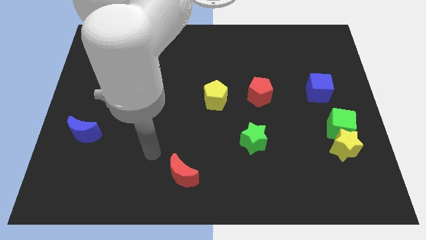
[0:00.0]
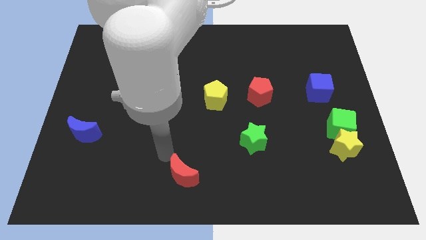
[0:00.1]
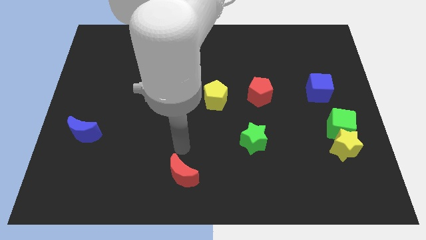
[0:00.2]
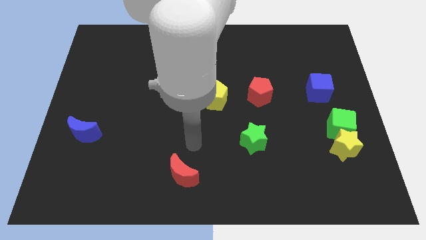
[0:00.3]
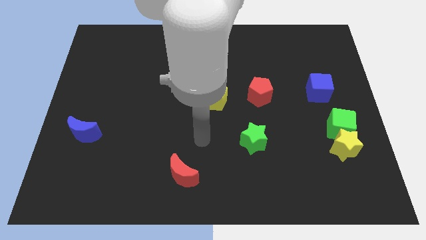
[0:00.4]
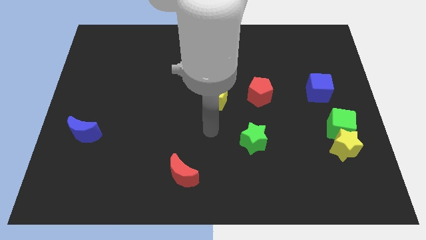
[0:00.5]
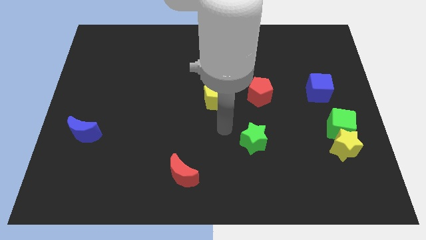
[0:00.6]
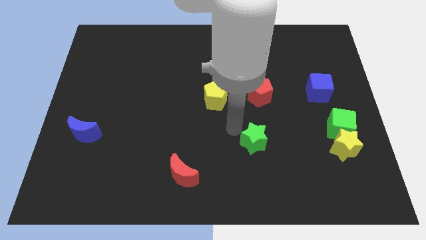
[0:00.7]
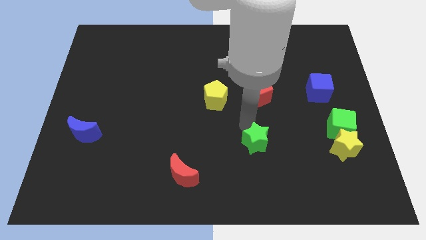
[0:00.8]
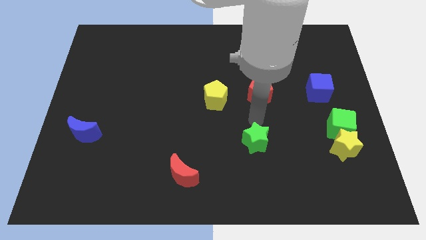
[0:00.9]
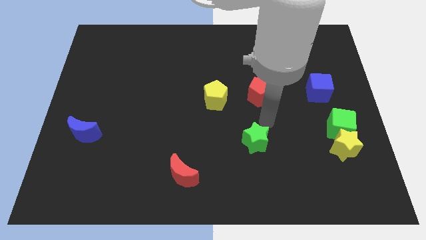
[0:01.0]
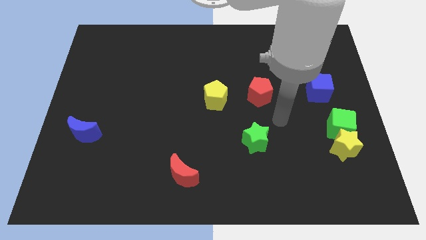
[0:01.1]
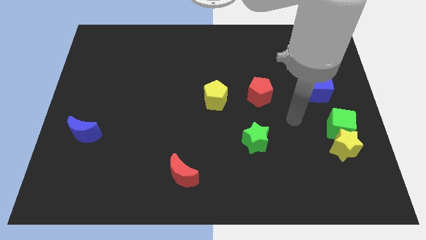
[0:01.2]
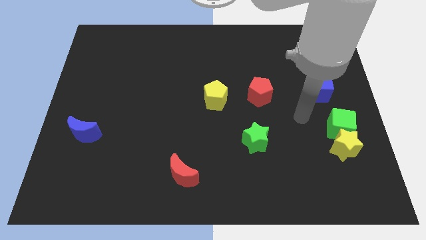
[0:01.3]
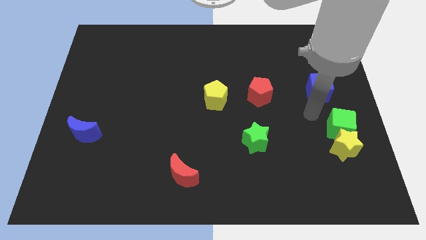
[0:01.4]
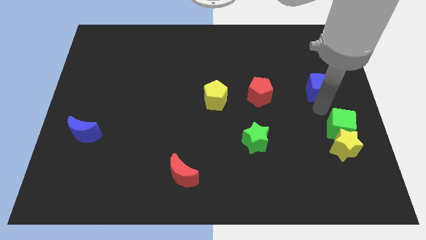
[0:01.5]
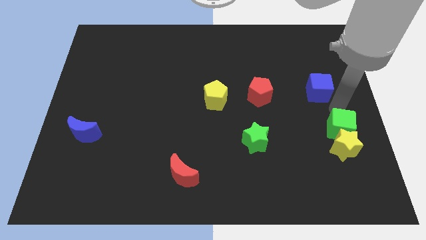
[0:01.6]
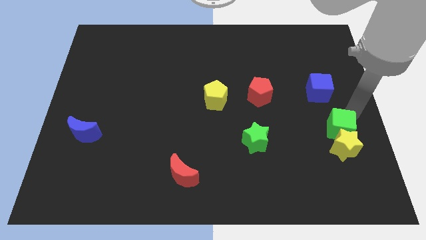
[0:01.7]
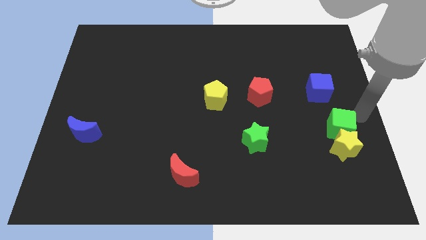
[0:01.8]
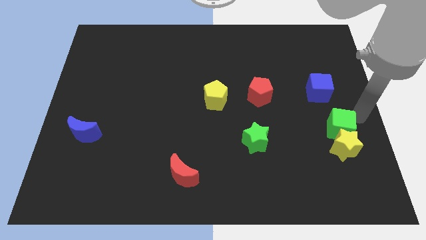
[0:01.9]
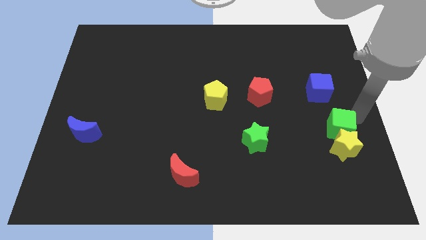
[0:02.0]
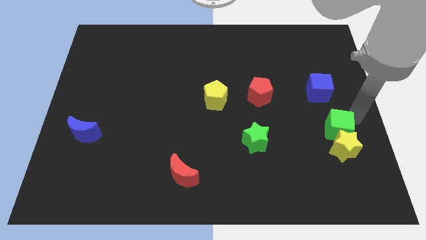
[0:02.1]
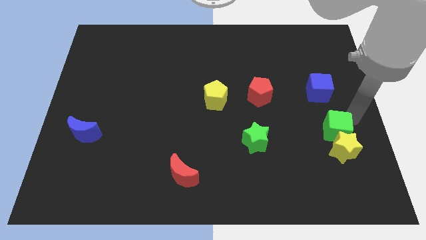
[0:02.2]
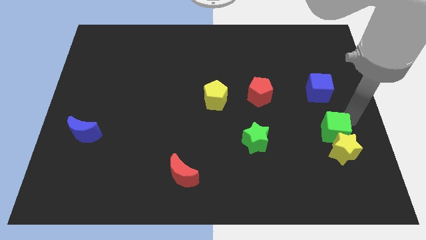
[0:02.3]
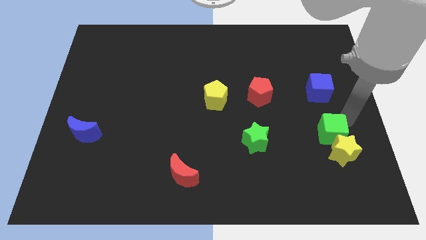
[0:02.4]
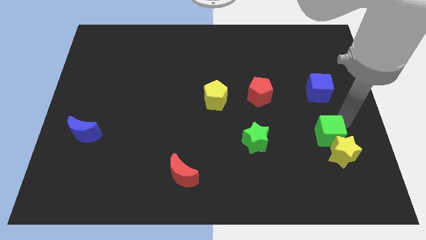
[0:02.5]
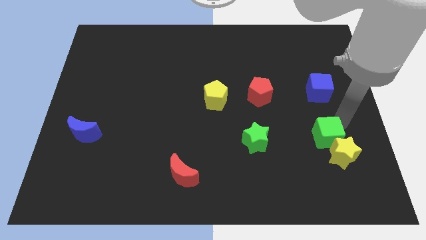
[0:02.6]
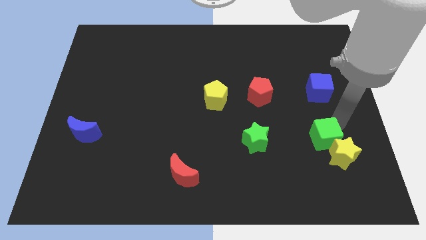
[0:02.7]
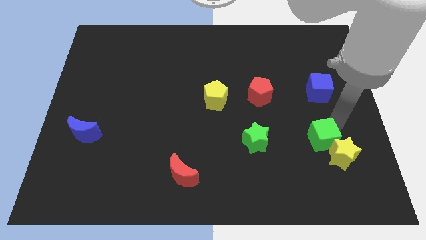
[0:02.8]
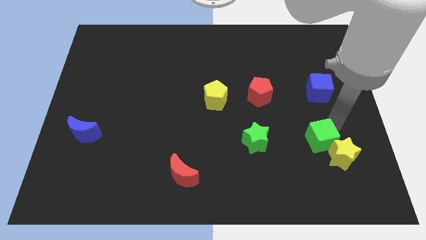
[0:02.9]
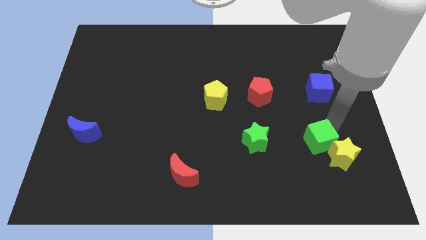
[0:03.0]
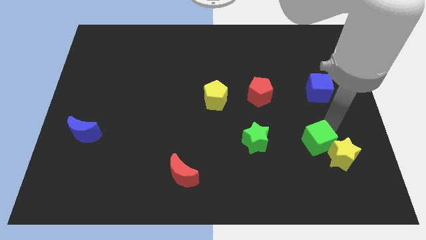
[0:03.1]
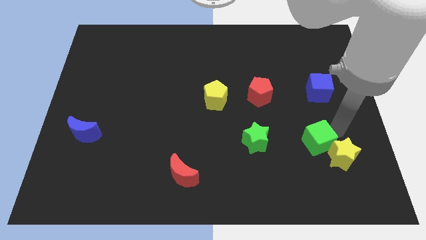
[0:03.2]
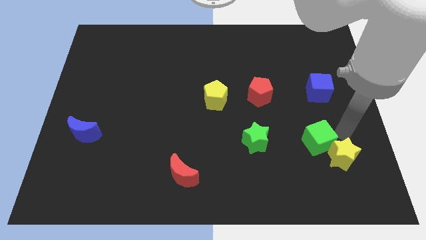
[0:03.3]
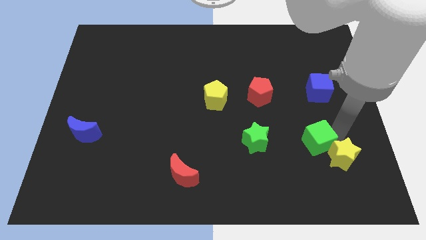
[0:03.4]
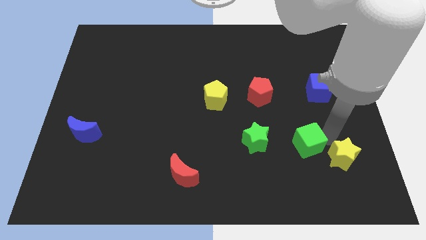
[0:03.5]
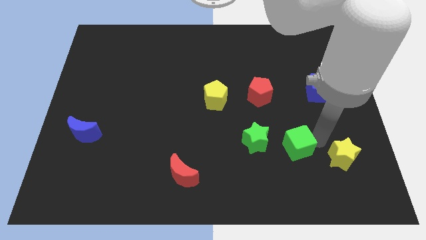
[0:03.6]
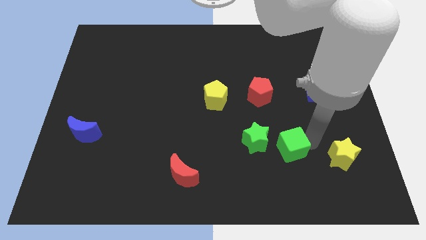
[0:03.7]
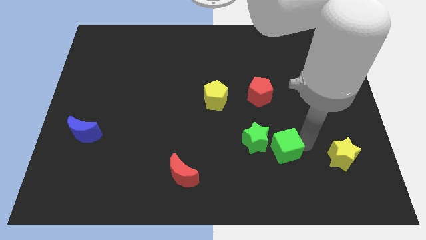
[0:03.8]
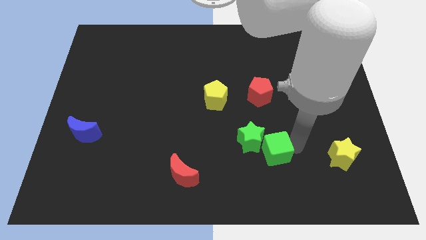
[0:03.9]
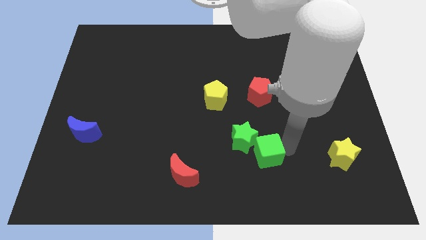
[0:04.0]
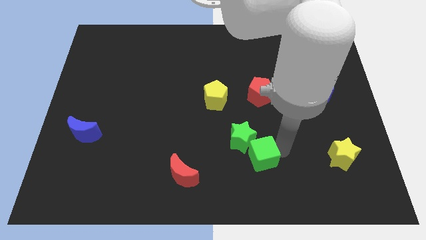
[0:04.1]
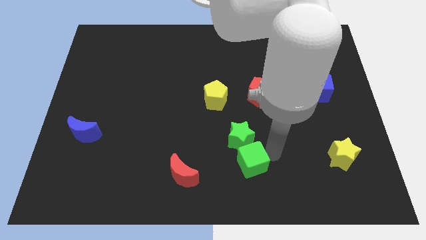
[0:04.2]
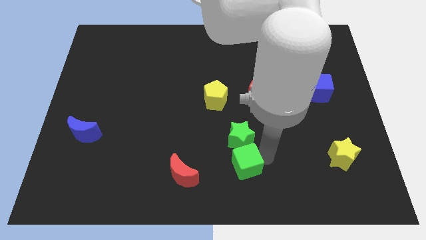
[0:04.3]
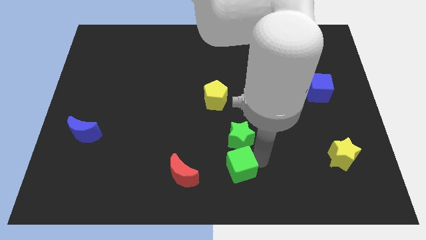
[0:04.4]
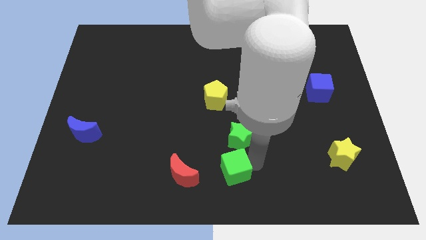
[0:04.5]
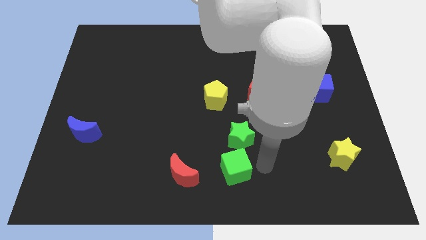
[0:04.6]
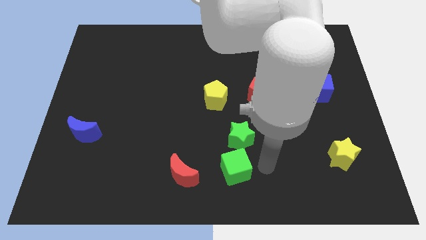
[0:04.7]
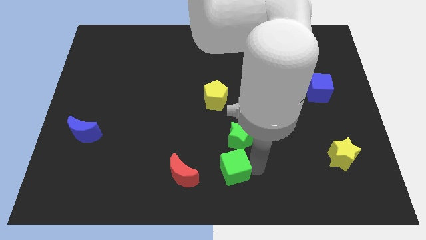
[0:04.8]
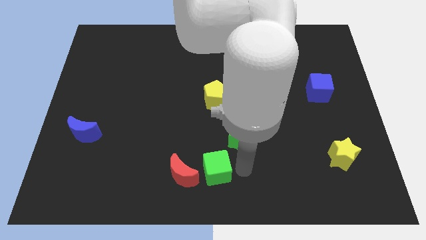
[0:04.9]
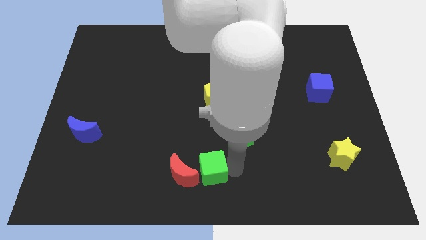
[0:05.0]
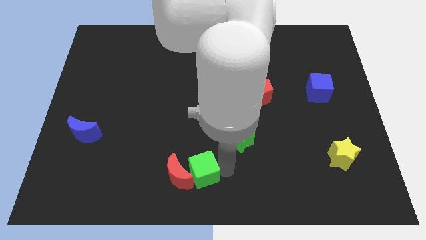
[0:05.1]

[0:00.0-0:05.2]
put the green cube next to the red moon

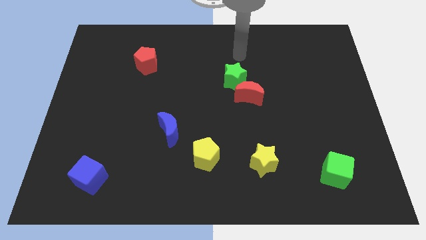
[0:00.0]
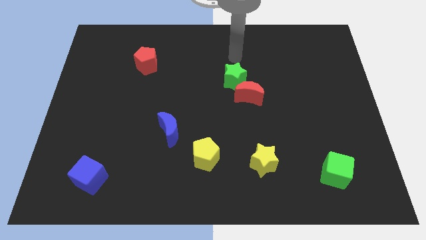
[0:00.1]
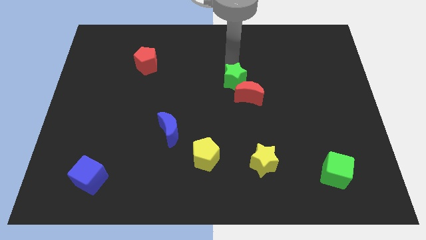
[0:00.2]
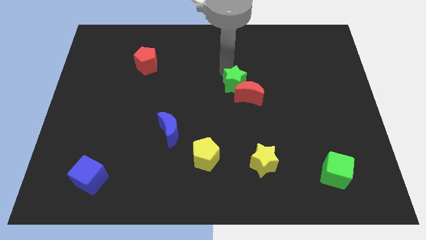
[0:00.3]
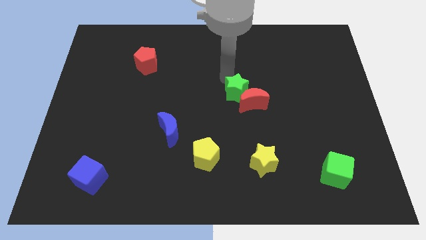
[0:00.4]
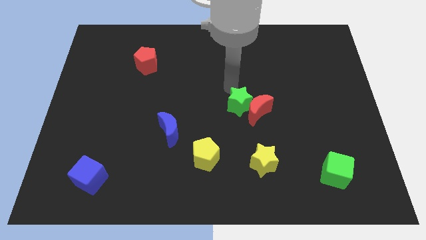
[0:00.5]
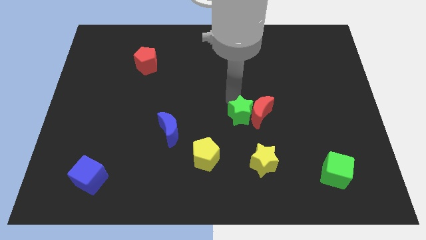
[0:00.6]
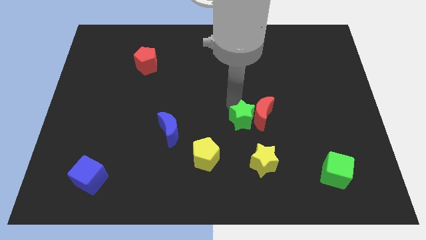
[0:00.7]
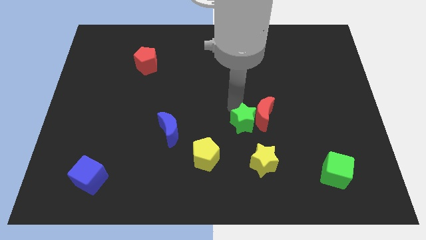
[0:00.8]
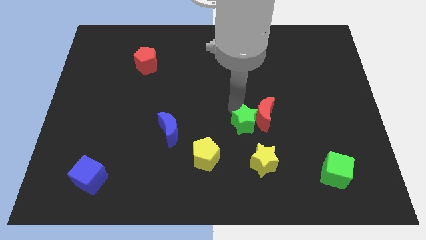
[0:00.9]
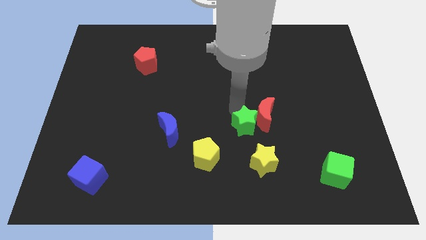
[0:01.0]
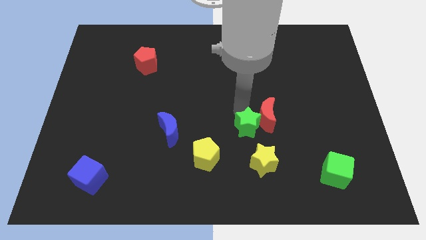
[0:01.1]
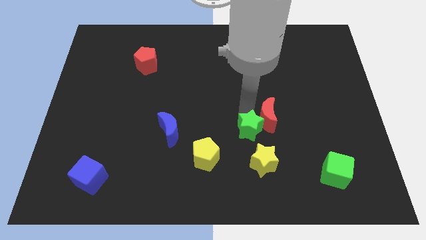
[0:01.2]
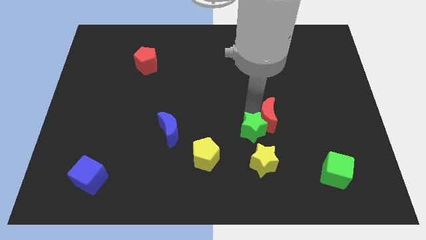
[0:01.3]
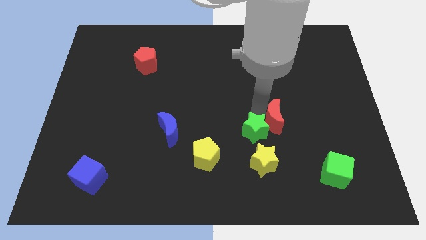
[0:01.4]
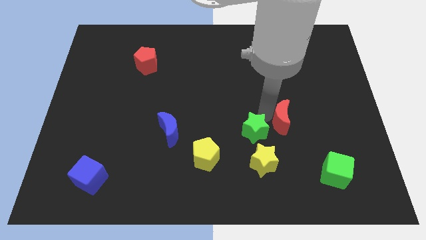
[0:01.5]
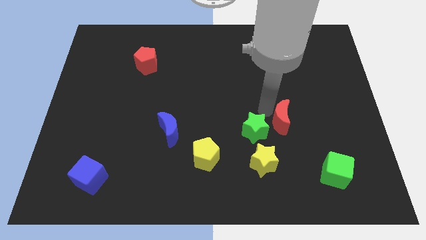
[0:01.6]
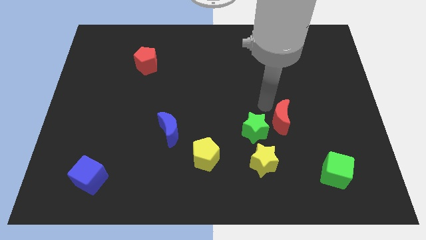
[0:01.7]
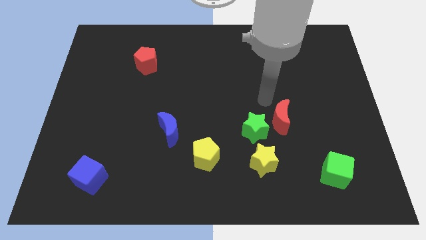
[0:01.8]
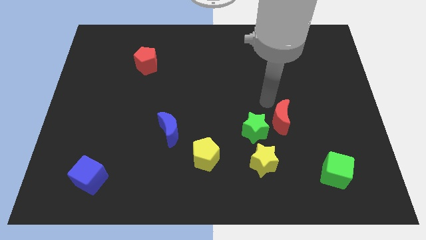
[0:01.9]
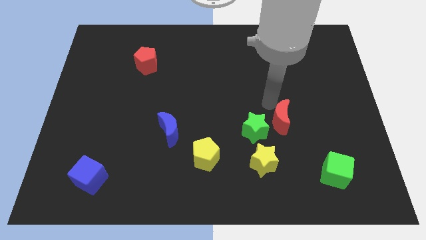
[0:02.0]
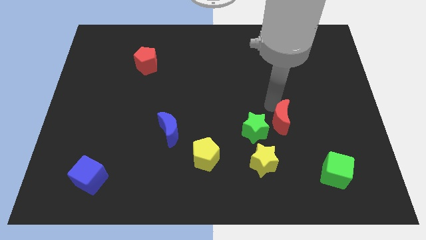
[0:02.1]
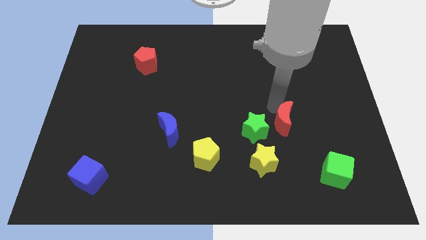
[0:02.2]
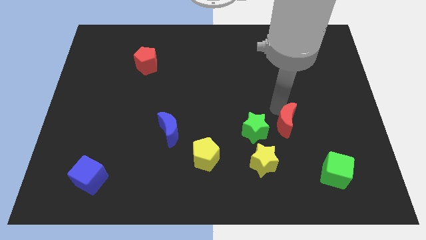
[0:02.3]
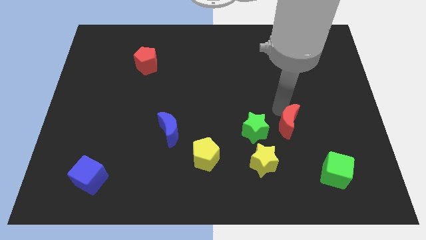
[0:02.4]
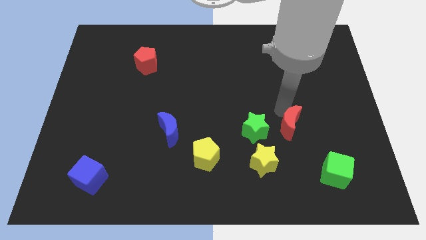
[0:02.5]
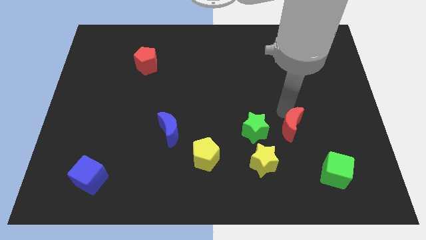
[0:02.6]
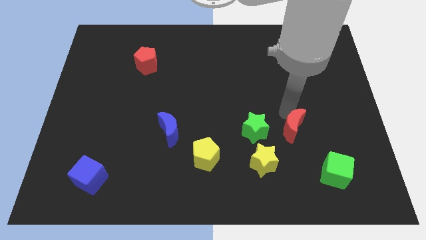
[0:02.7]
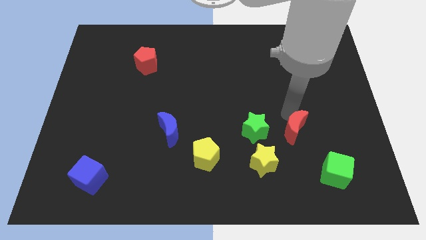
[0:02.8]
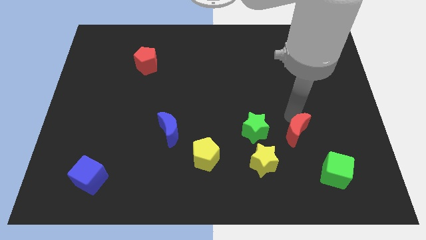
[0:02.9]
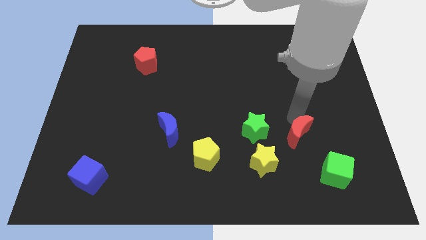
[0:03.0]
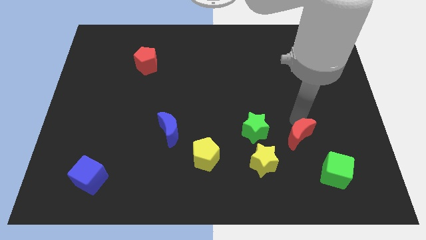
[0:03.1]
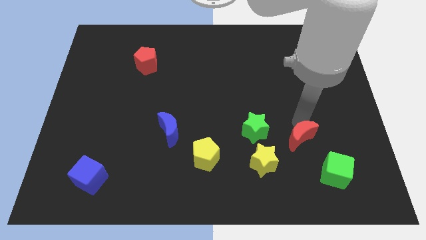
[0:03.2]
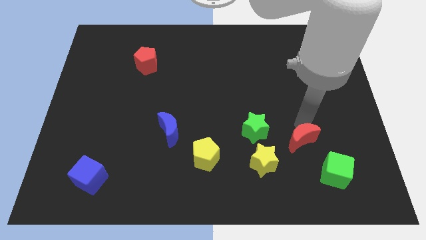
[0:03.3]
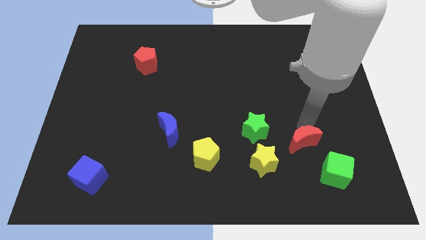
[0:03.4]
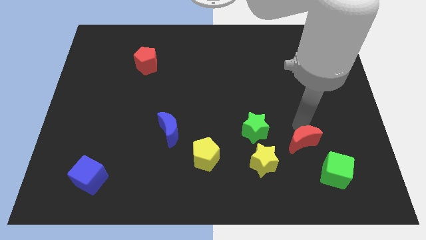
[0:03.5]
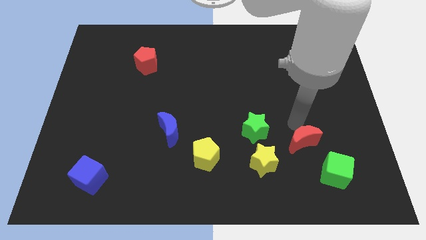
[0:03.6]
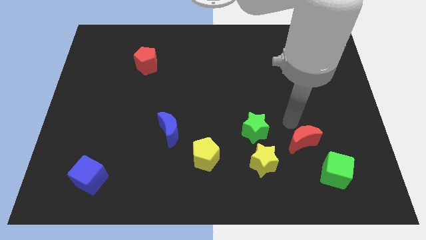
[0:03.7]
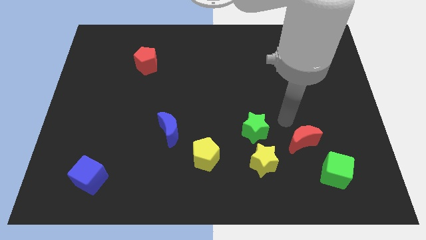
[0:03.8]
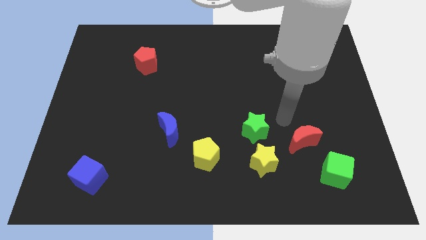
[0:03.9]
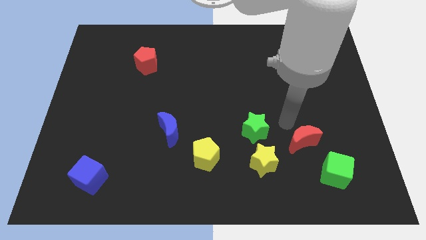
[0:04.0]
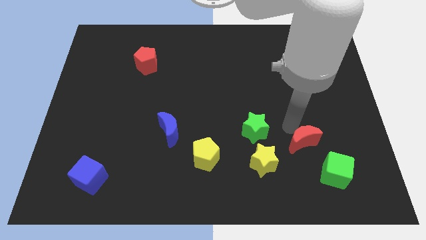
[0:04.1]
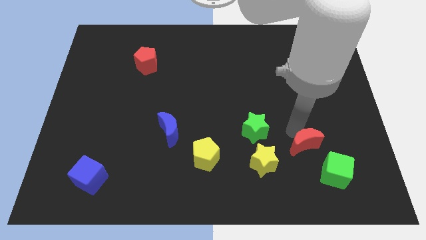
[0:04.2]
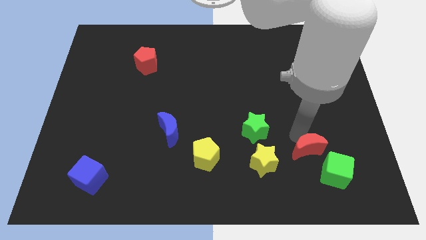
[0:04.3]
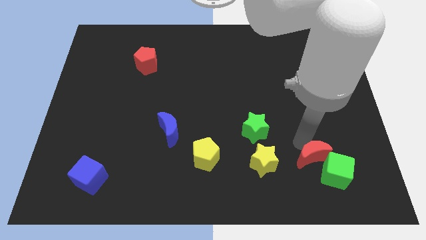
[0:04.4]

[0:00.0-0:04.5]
move the red moon next to the green cube
